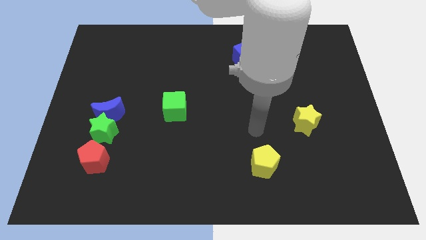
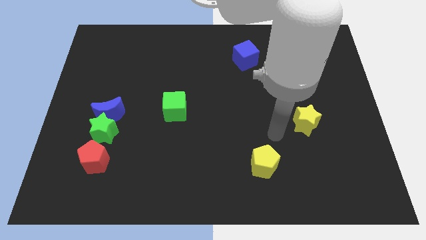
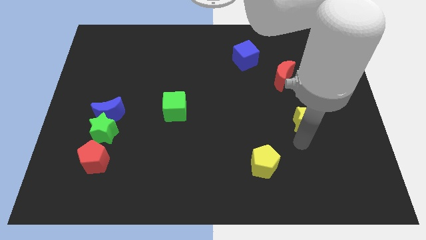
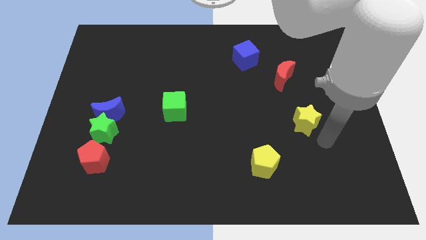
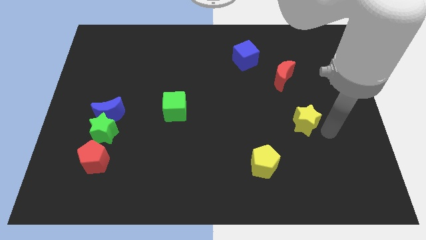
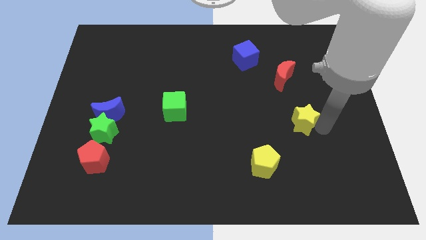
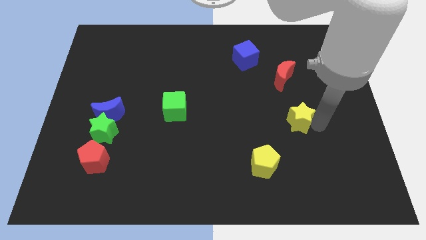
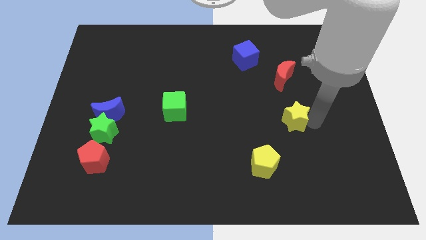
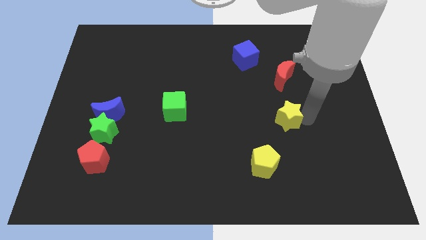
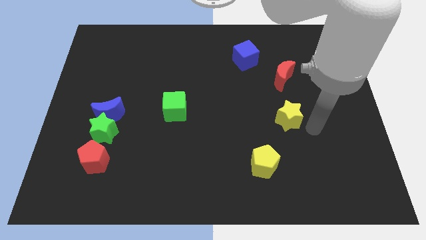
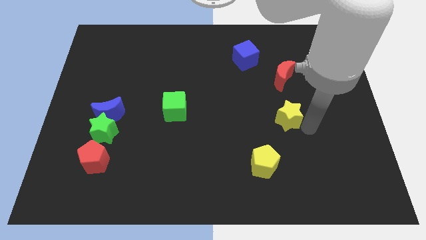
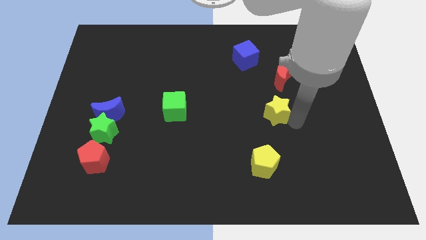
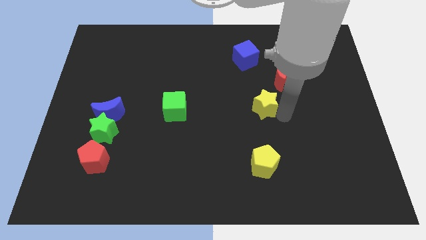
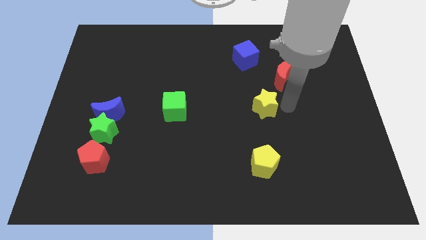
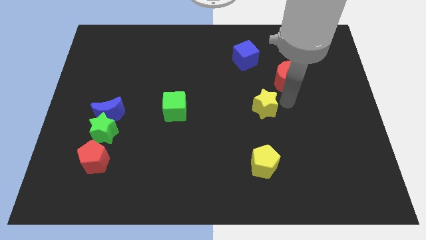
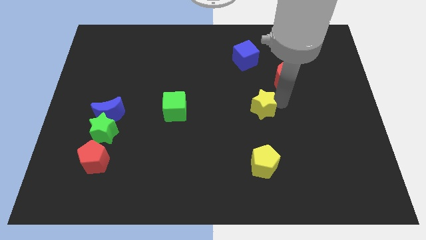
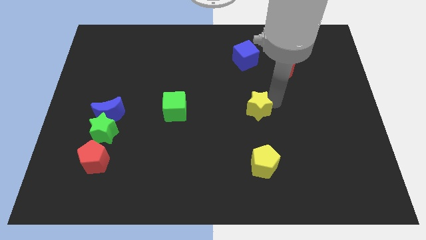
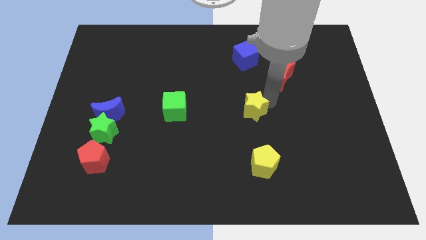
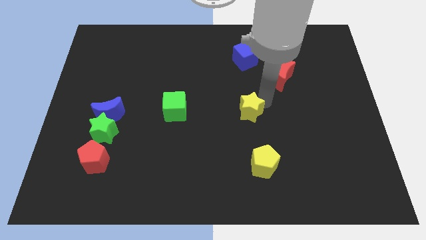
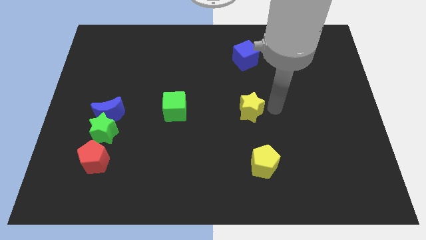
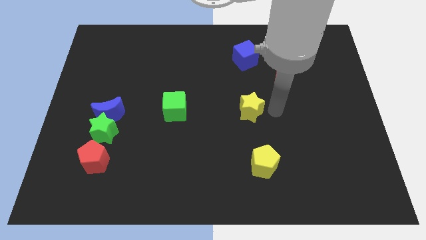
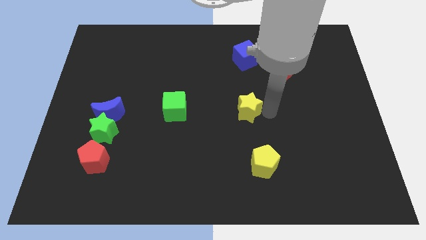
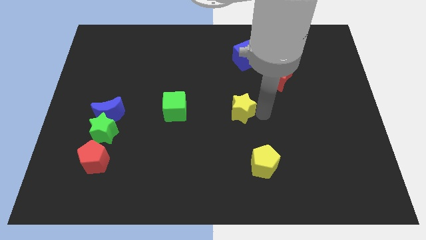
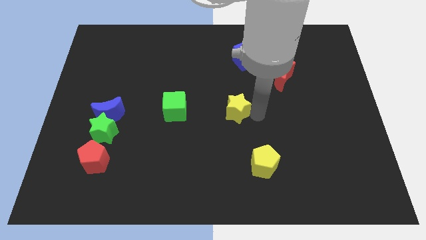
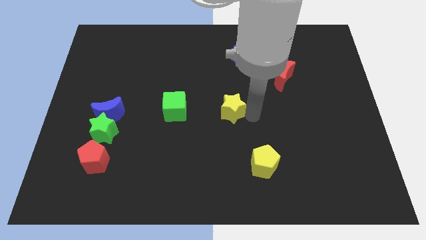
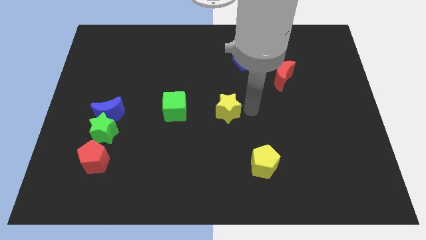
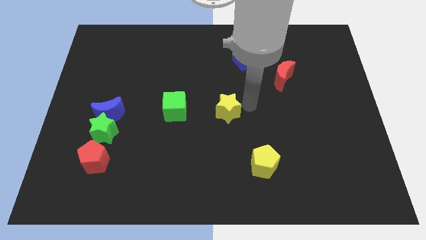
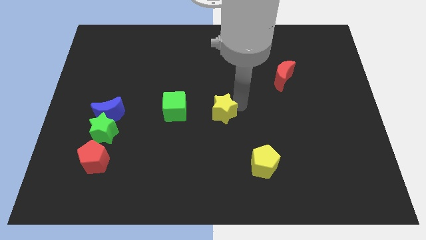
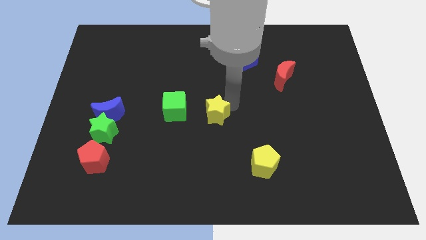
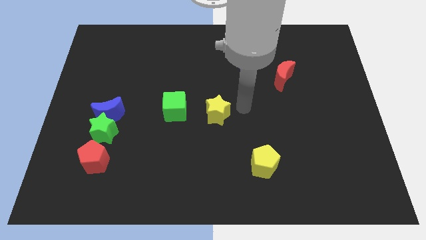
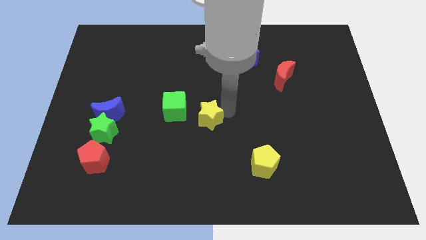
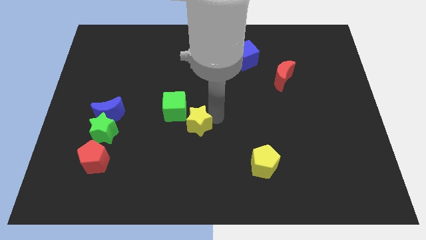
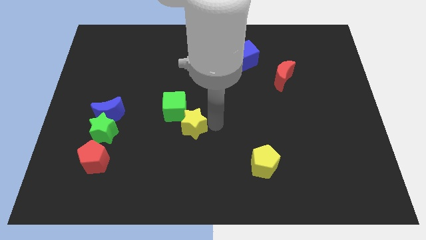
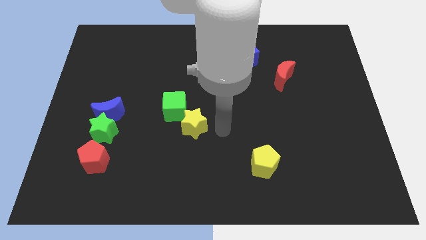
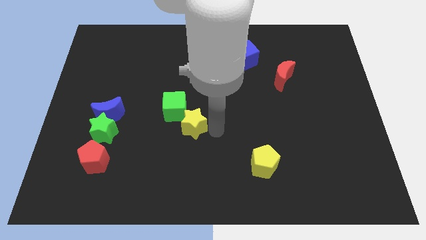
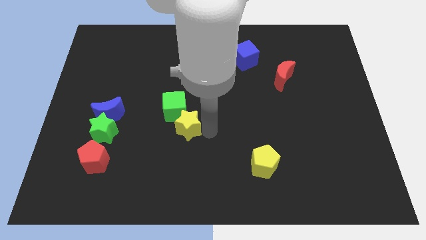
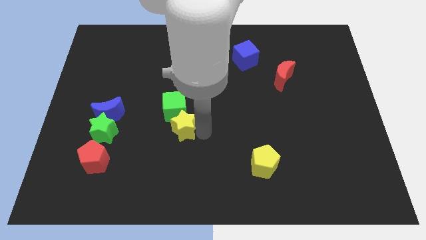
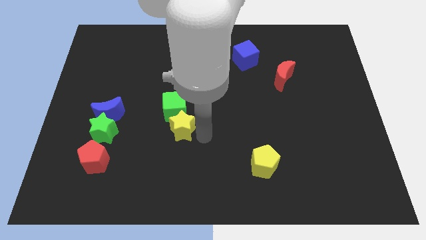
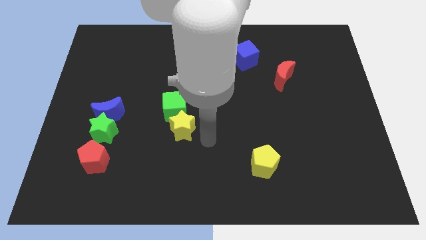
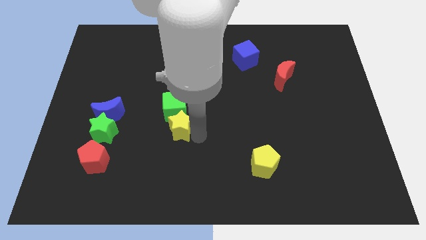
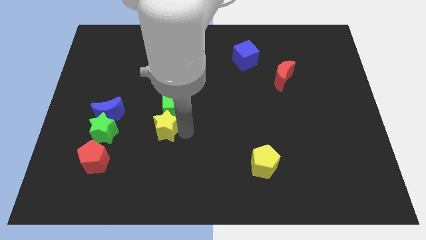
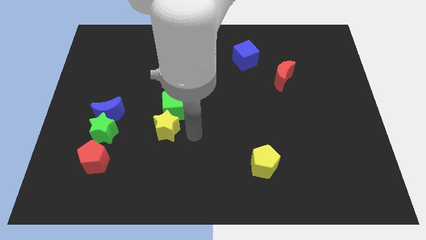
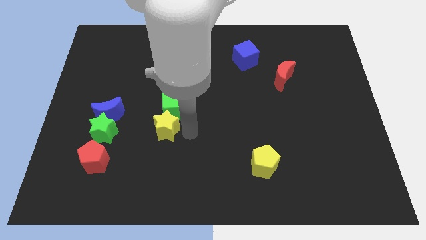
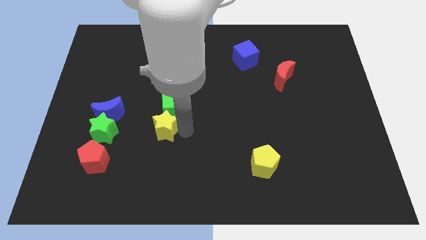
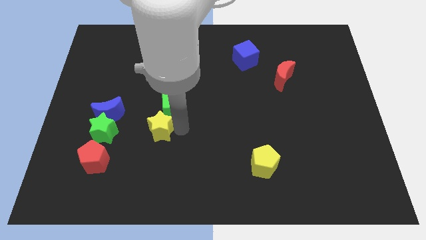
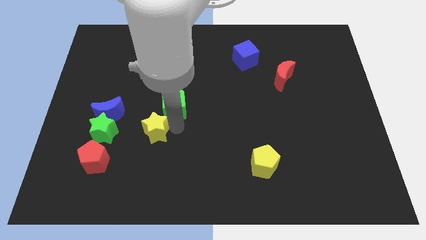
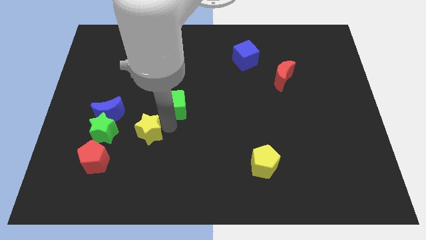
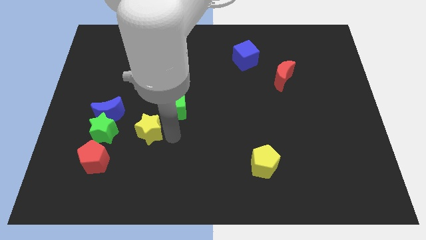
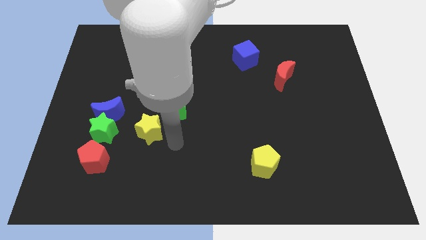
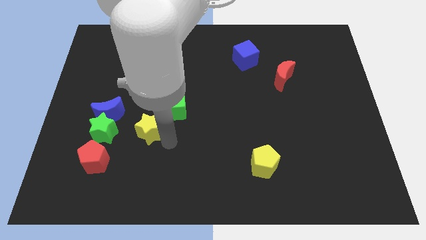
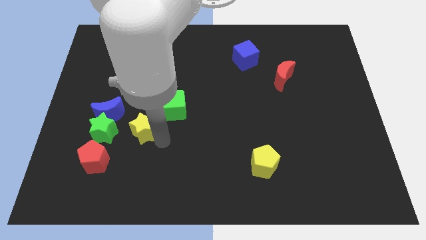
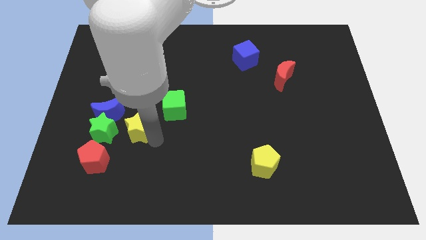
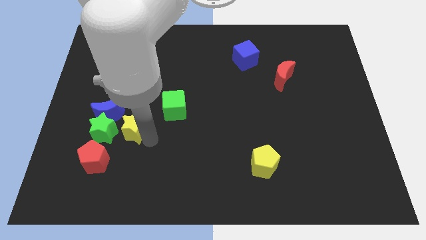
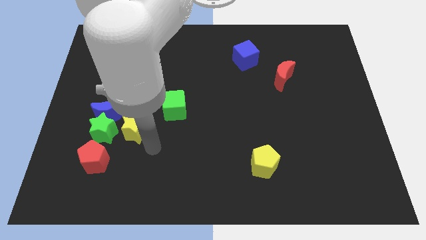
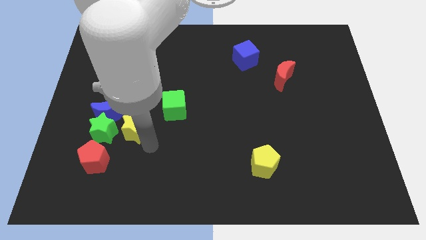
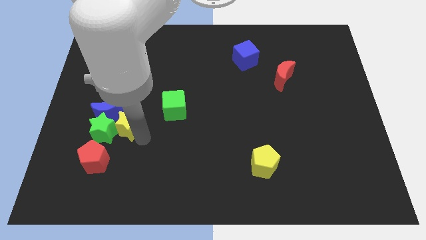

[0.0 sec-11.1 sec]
push the yellow star towards the blue moon

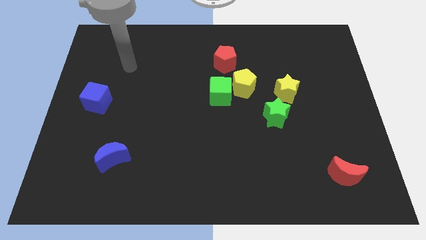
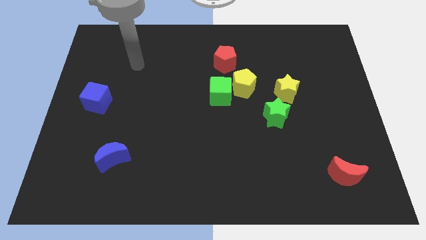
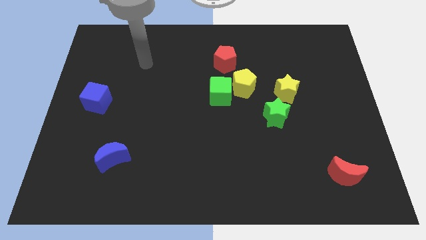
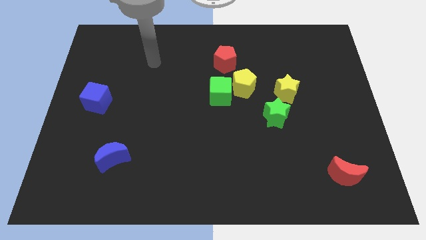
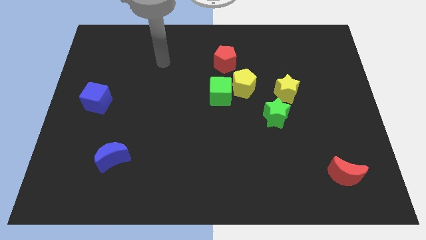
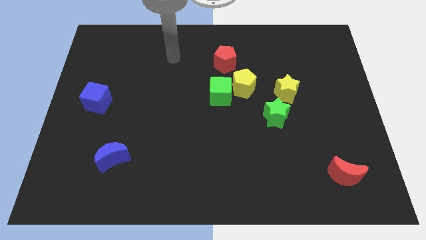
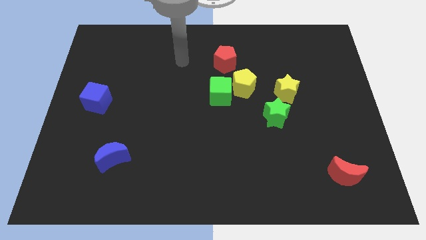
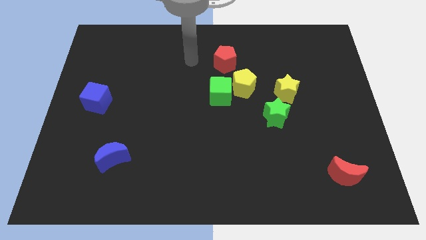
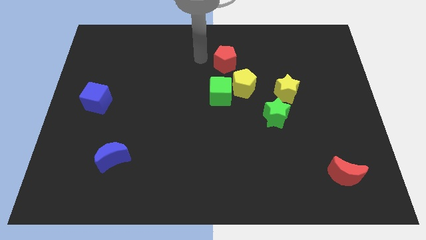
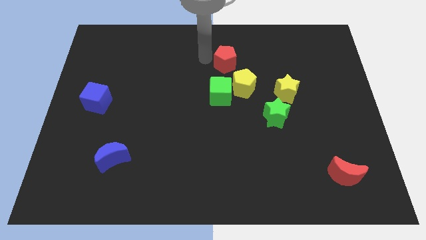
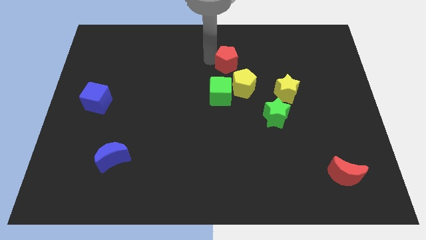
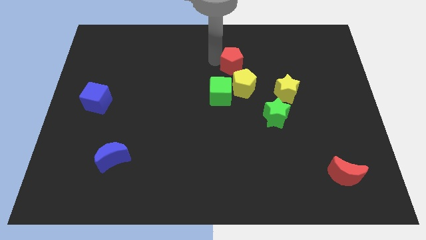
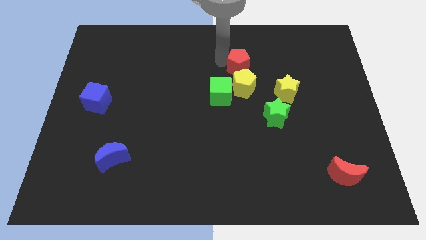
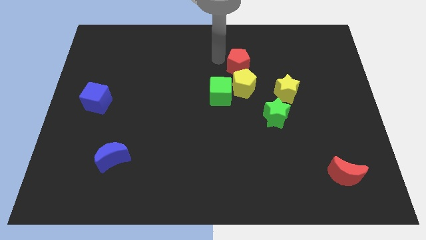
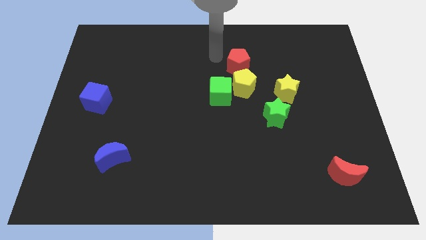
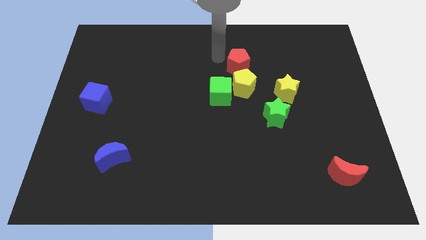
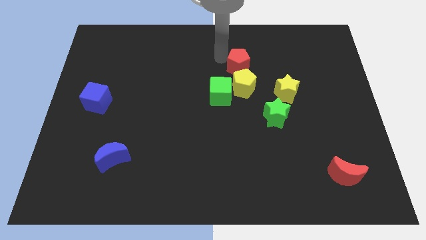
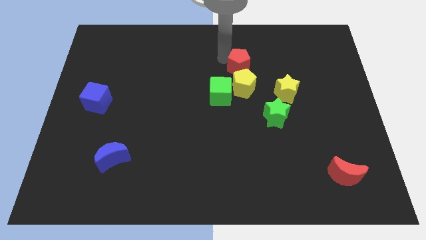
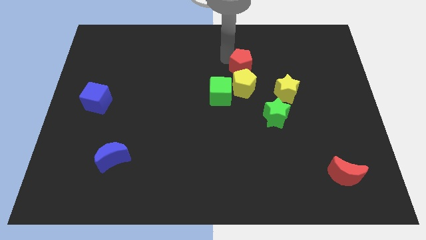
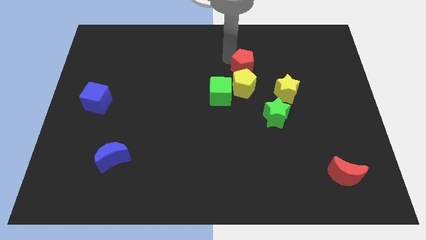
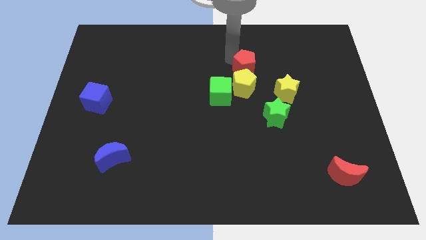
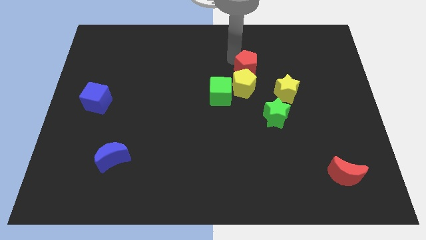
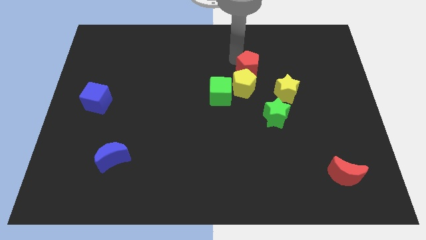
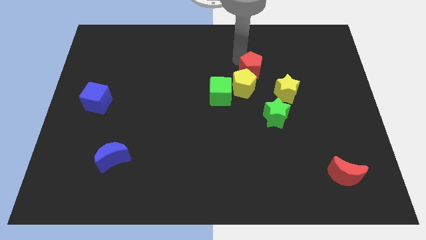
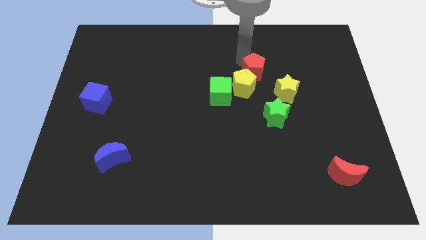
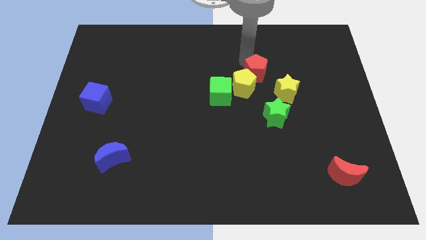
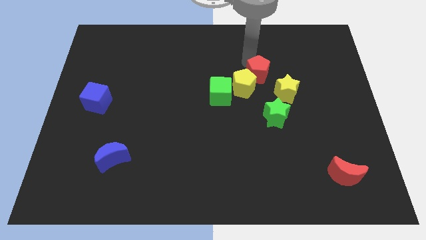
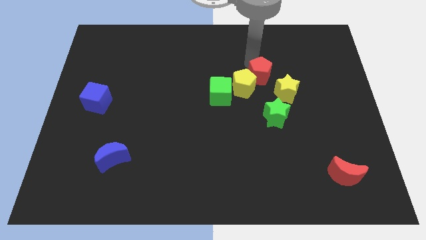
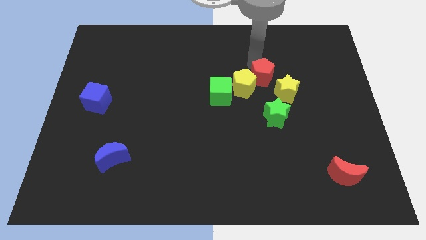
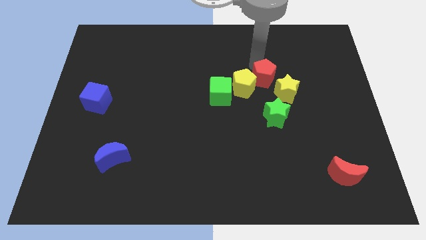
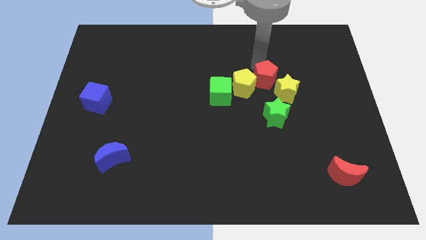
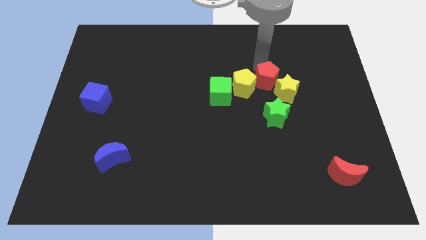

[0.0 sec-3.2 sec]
move the red pentagon towards the yellow star
